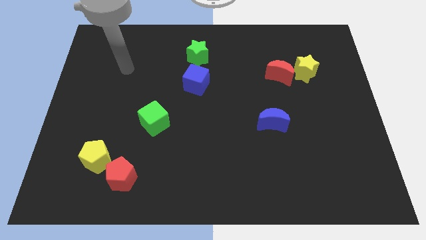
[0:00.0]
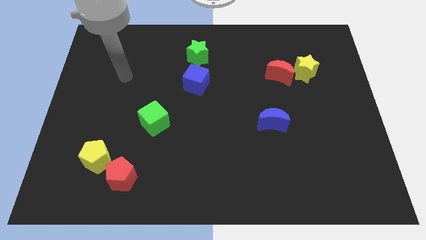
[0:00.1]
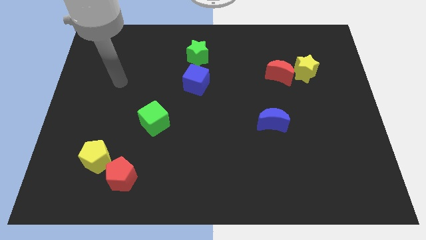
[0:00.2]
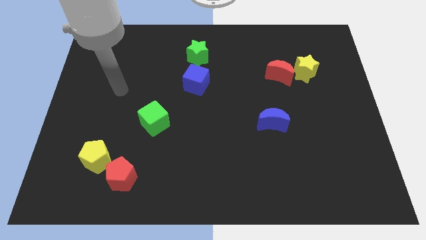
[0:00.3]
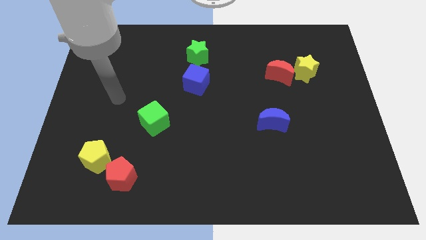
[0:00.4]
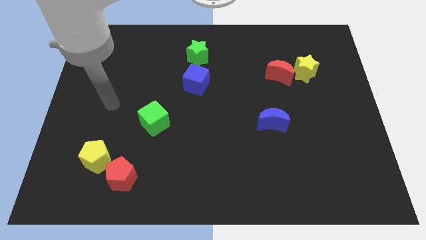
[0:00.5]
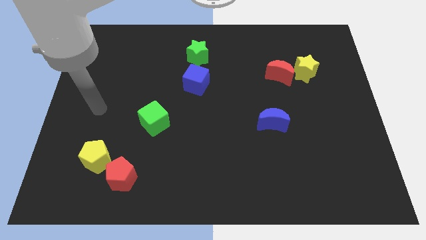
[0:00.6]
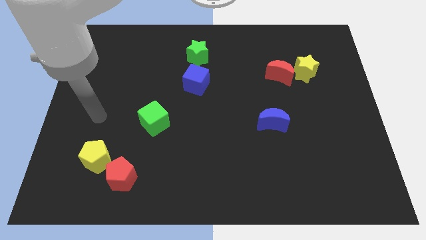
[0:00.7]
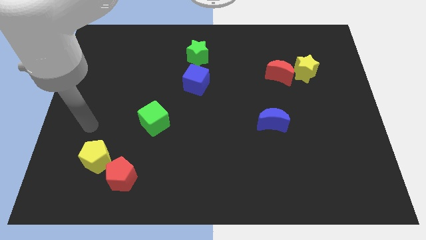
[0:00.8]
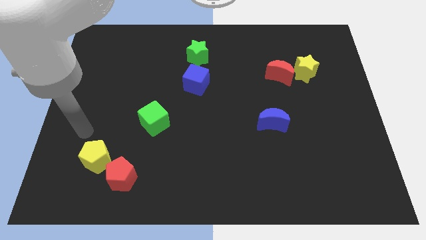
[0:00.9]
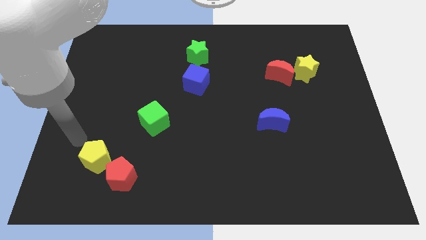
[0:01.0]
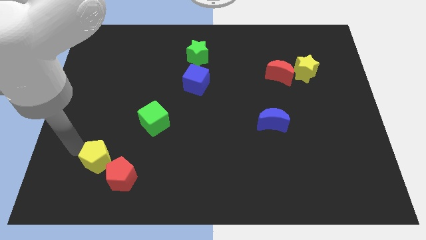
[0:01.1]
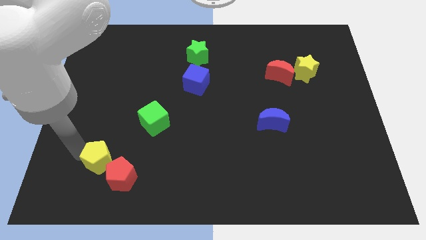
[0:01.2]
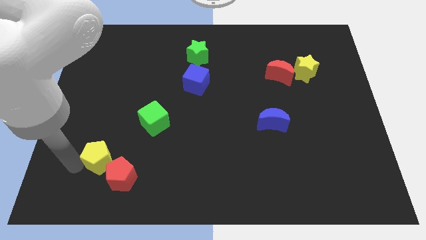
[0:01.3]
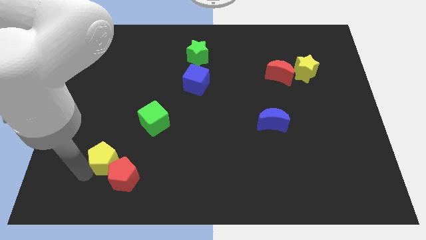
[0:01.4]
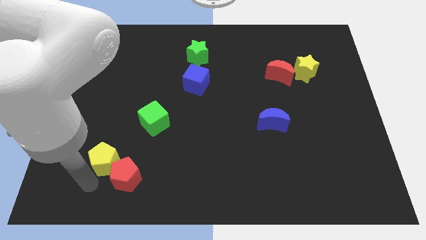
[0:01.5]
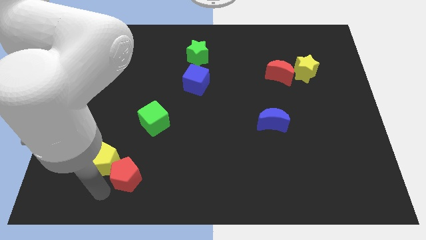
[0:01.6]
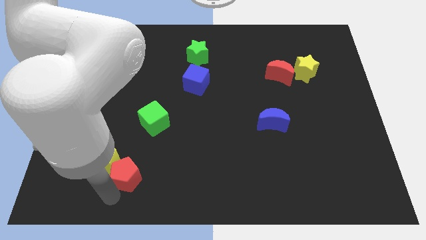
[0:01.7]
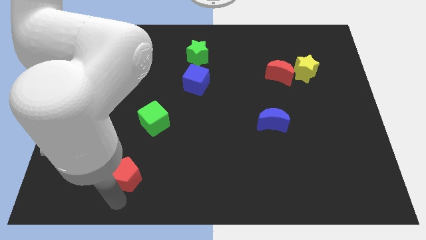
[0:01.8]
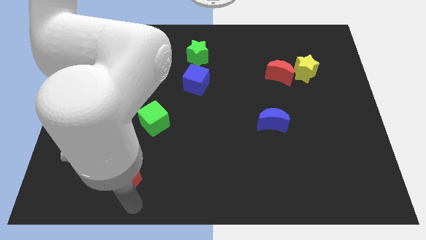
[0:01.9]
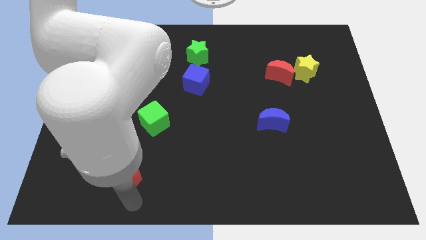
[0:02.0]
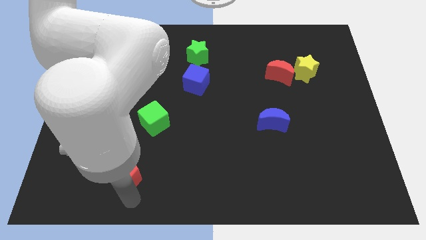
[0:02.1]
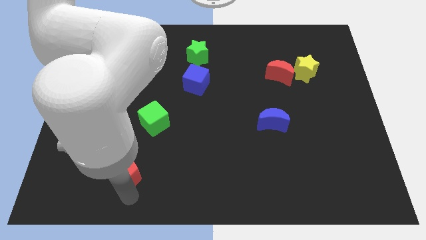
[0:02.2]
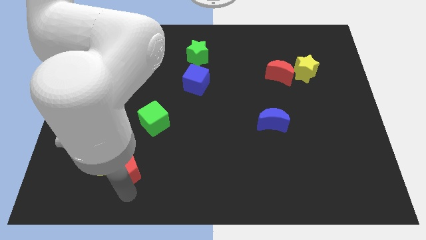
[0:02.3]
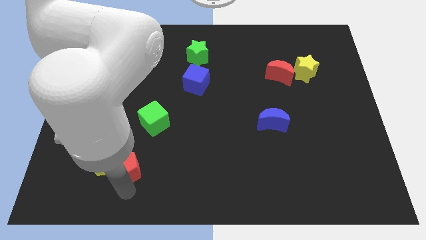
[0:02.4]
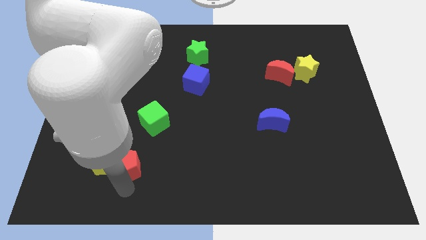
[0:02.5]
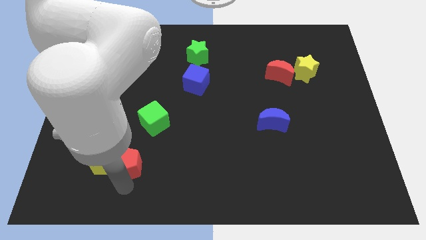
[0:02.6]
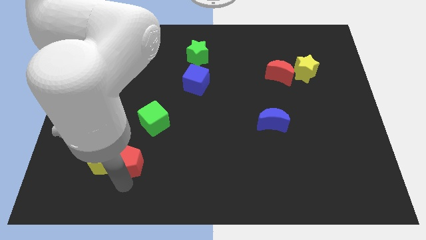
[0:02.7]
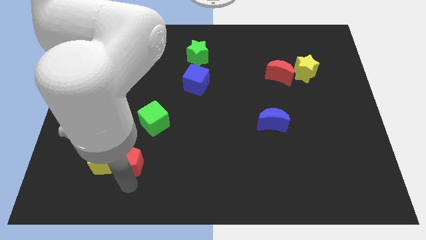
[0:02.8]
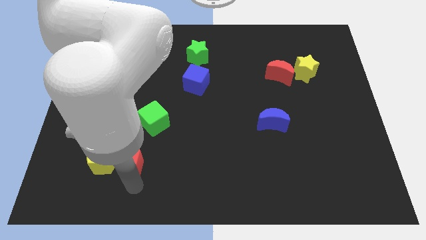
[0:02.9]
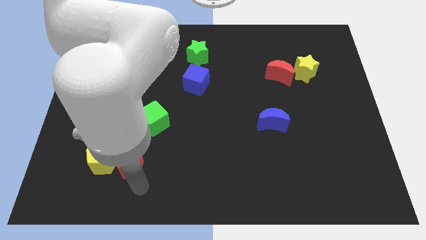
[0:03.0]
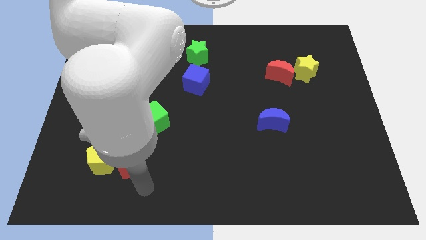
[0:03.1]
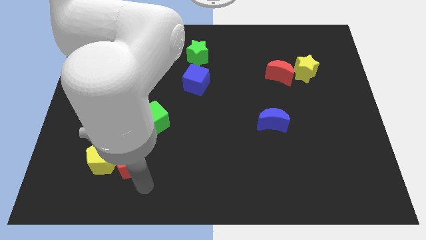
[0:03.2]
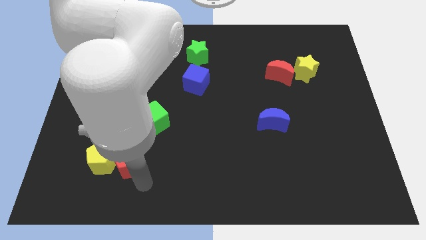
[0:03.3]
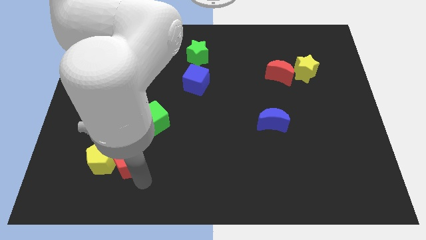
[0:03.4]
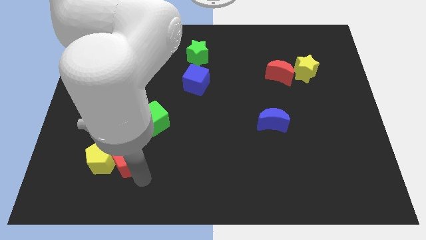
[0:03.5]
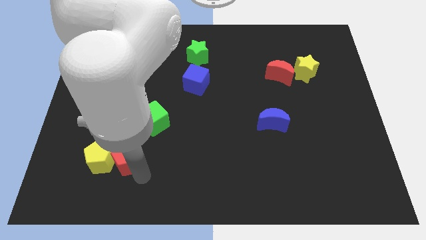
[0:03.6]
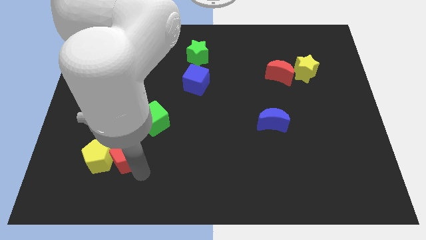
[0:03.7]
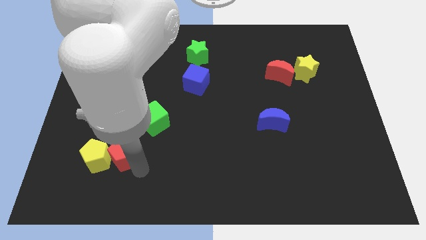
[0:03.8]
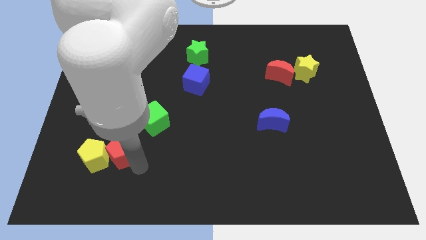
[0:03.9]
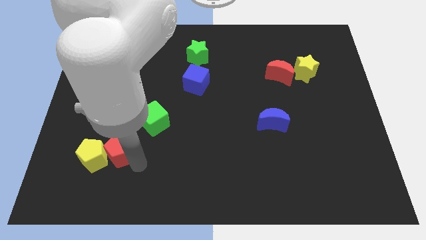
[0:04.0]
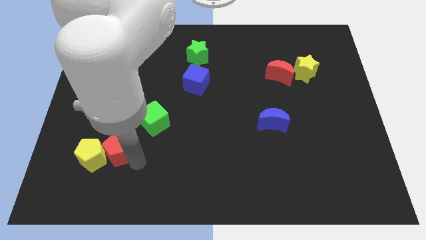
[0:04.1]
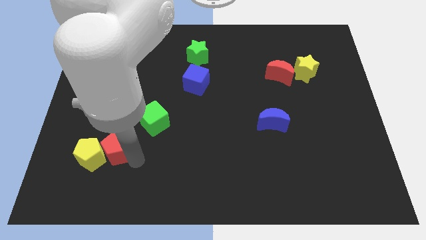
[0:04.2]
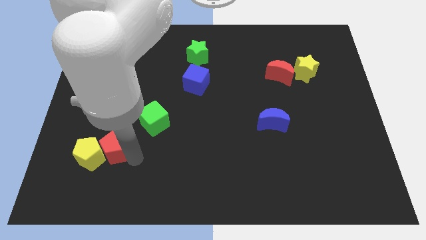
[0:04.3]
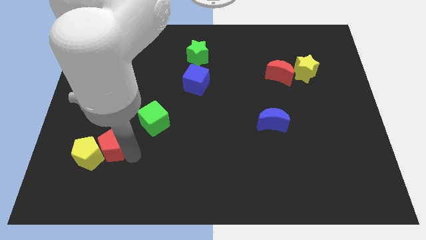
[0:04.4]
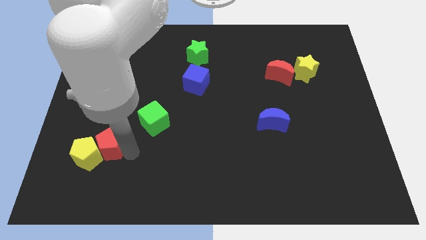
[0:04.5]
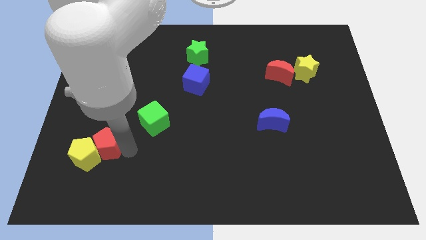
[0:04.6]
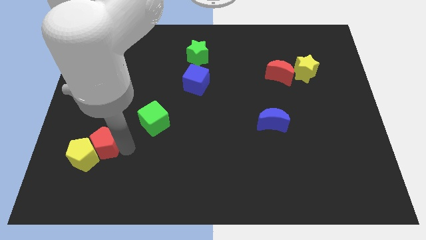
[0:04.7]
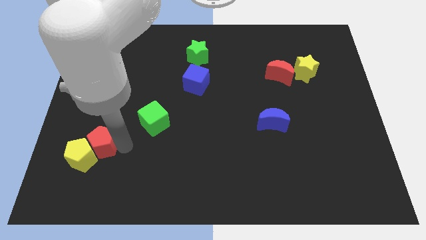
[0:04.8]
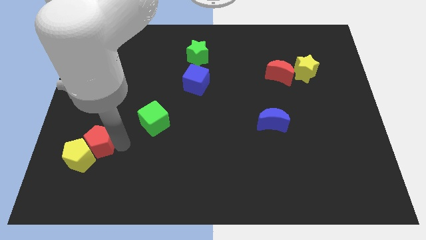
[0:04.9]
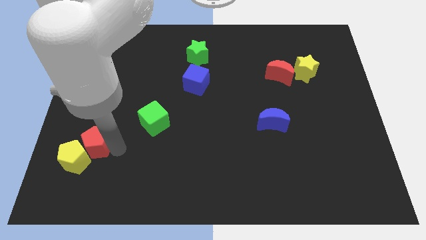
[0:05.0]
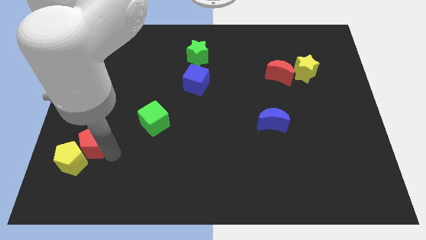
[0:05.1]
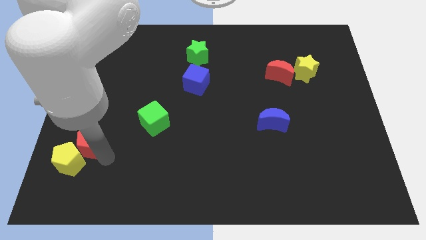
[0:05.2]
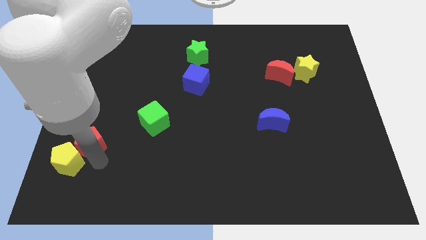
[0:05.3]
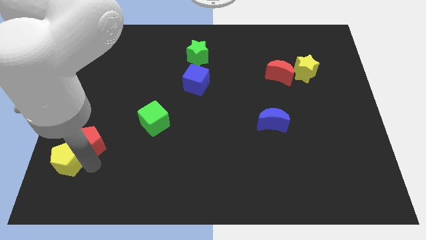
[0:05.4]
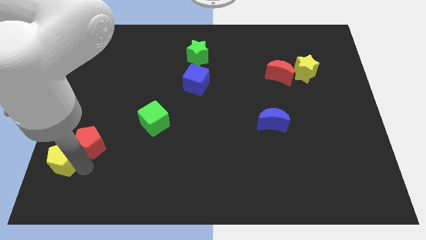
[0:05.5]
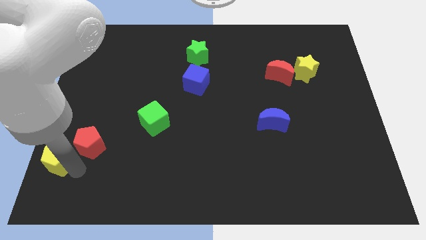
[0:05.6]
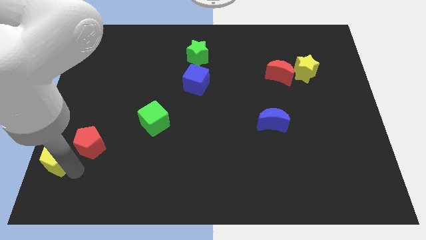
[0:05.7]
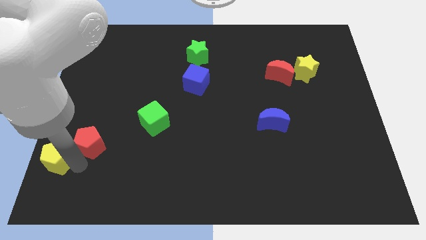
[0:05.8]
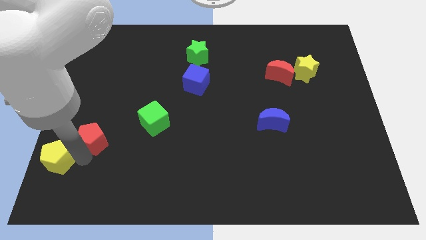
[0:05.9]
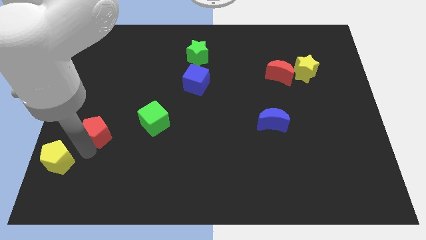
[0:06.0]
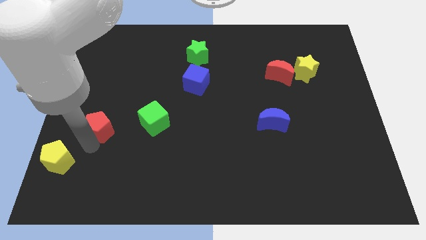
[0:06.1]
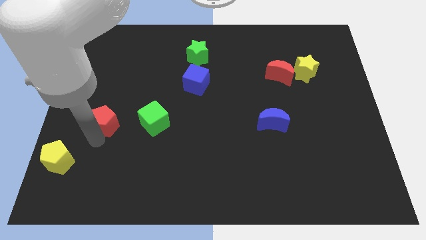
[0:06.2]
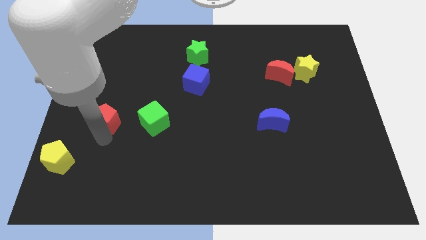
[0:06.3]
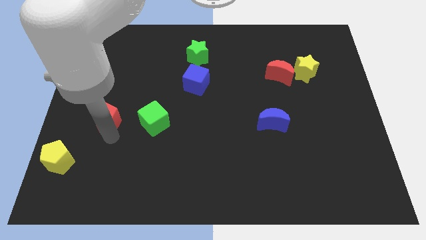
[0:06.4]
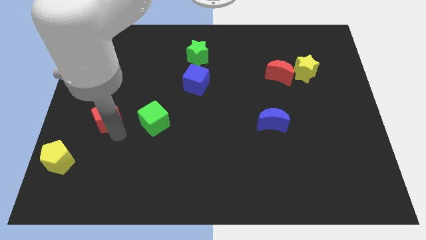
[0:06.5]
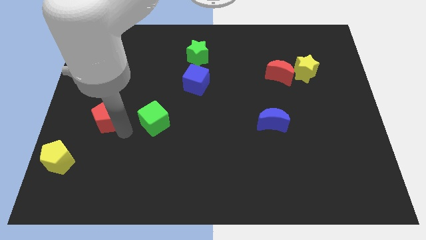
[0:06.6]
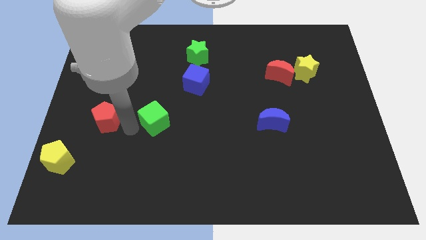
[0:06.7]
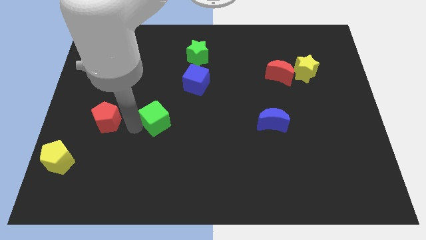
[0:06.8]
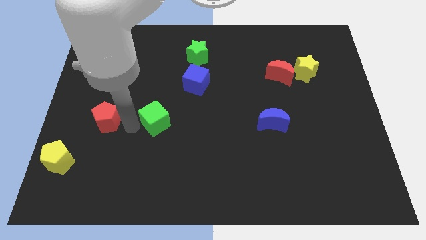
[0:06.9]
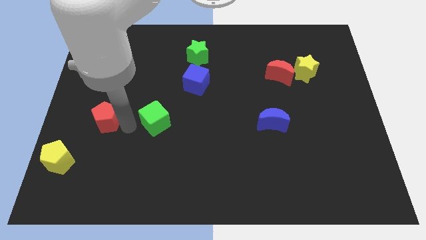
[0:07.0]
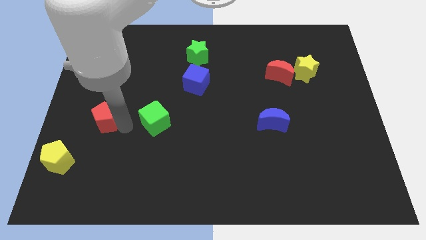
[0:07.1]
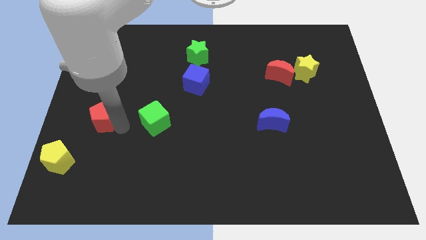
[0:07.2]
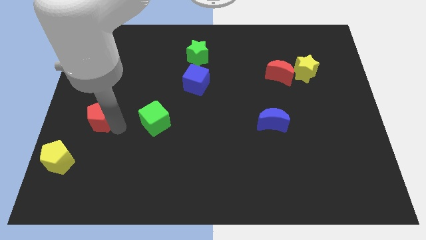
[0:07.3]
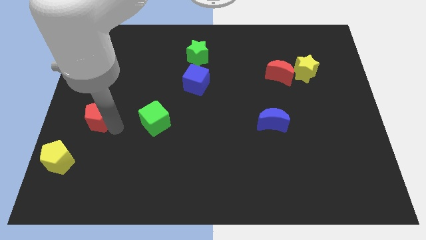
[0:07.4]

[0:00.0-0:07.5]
move the red pentagon to the center left
